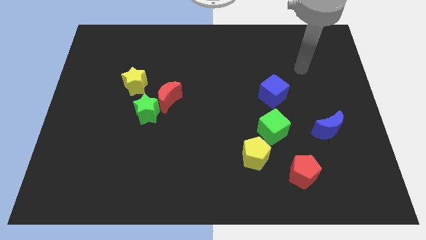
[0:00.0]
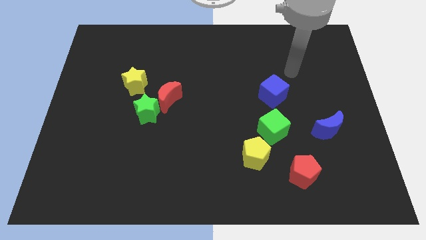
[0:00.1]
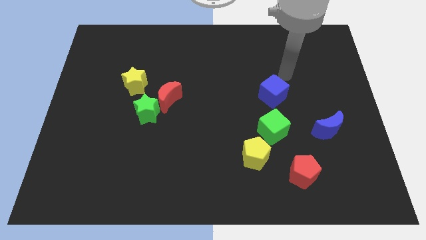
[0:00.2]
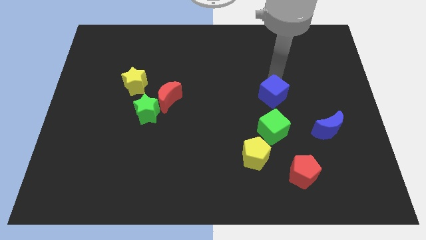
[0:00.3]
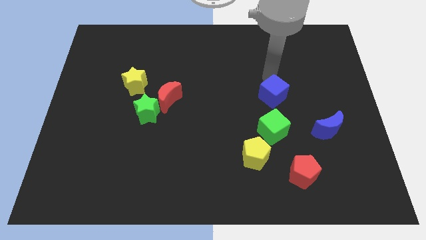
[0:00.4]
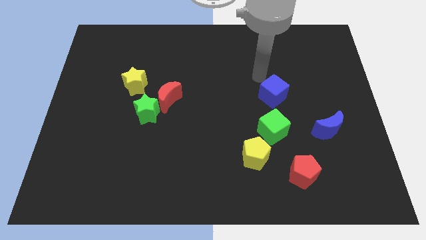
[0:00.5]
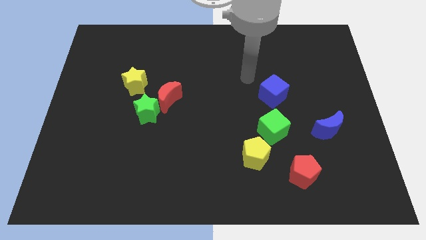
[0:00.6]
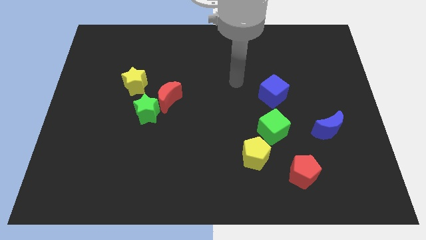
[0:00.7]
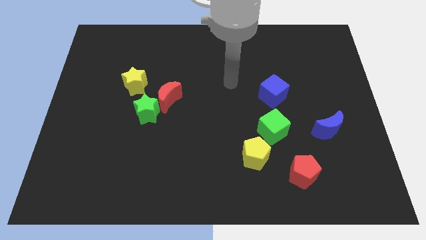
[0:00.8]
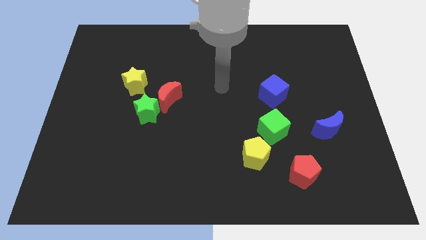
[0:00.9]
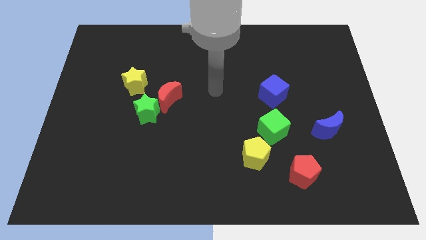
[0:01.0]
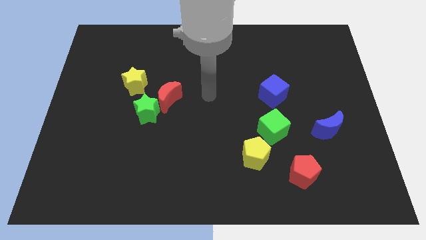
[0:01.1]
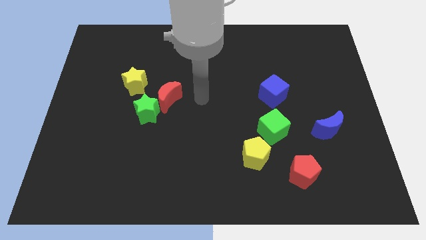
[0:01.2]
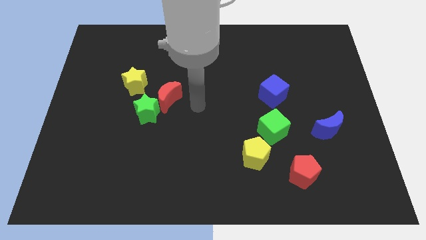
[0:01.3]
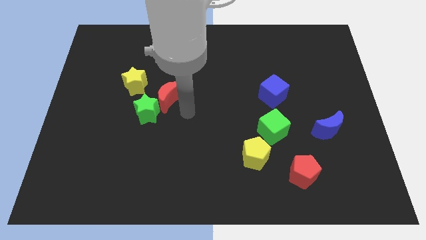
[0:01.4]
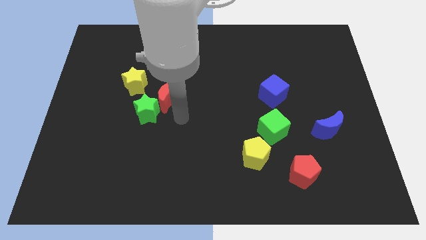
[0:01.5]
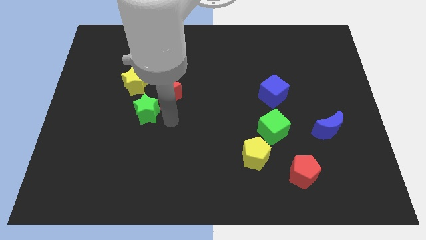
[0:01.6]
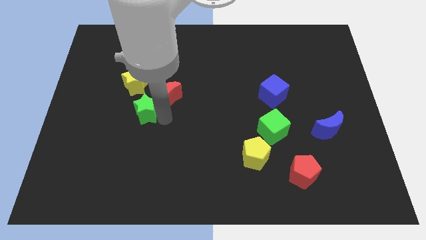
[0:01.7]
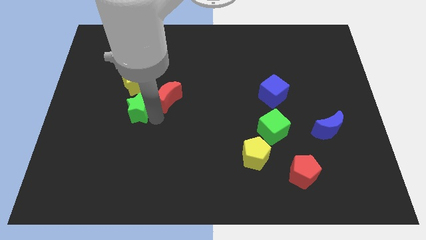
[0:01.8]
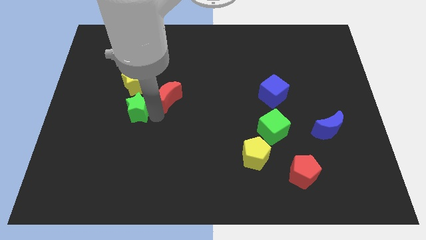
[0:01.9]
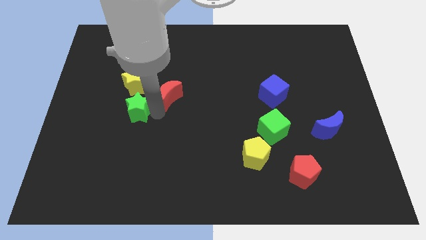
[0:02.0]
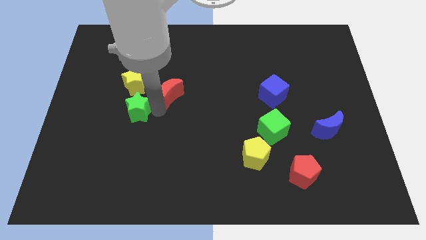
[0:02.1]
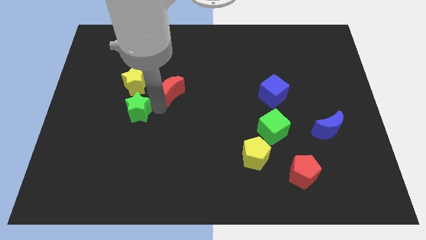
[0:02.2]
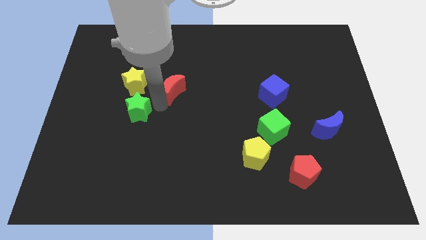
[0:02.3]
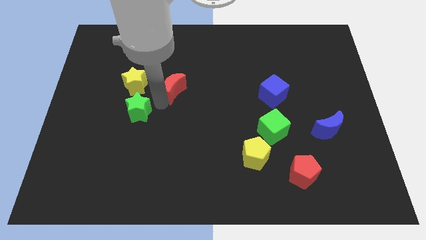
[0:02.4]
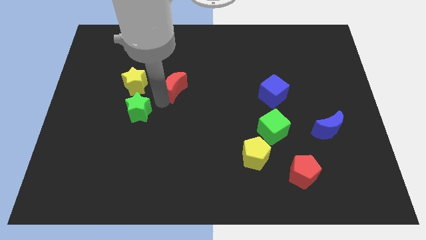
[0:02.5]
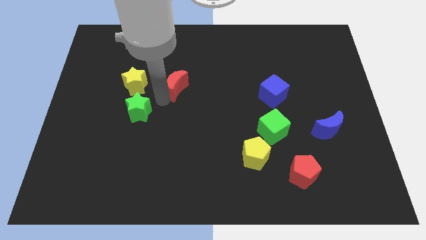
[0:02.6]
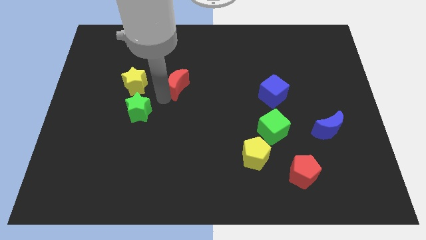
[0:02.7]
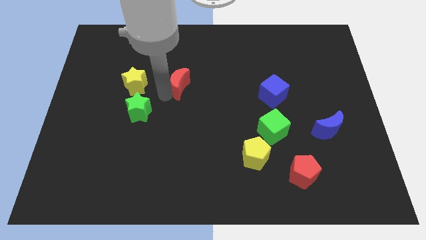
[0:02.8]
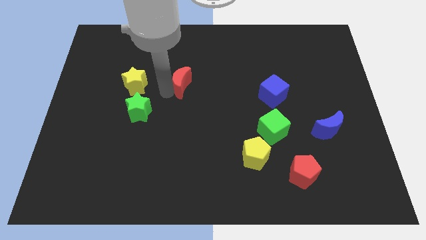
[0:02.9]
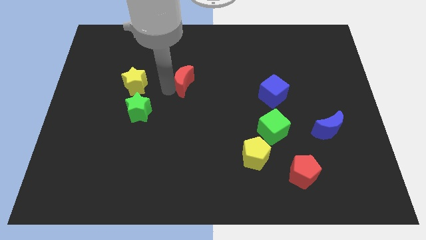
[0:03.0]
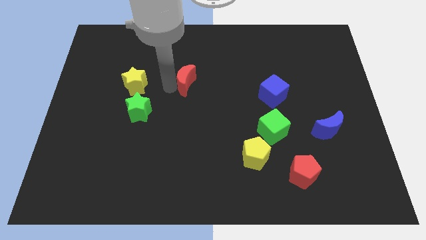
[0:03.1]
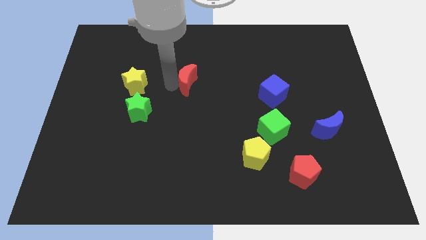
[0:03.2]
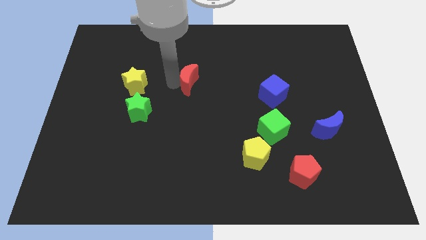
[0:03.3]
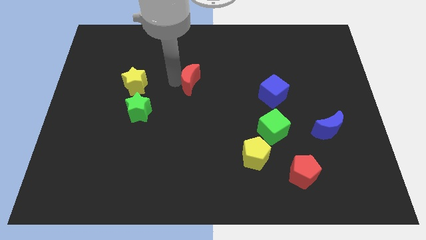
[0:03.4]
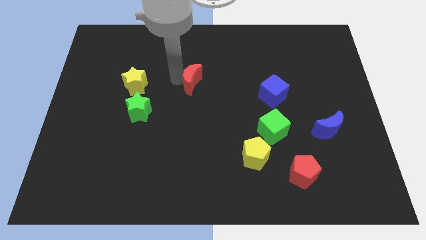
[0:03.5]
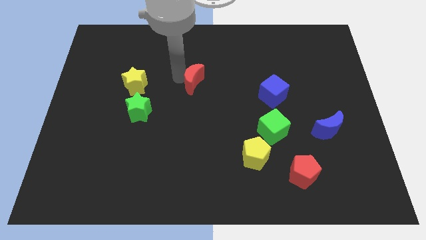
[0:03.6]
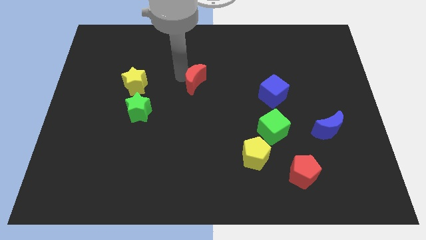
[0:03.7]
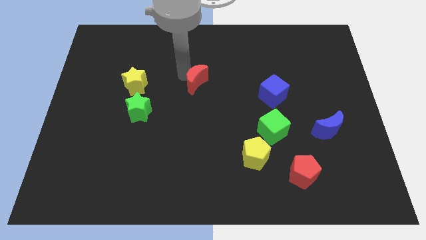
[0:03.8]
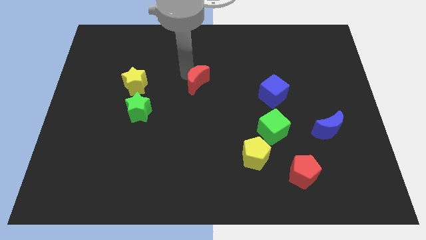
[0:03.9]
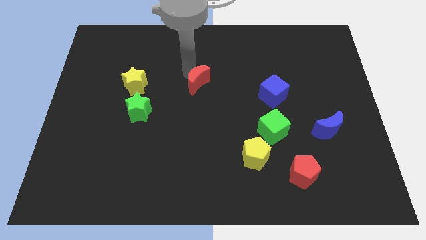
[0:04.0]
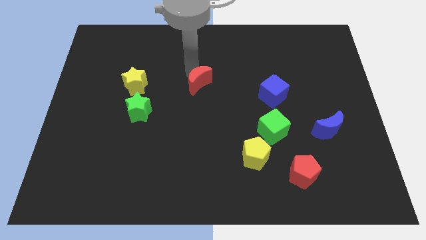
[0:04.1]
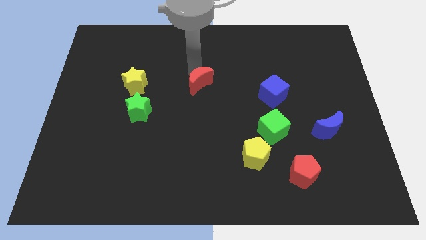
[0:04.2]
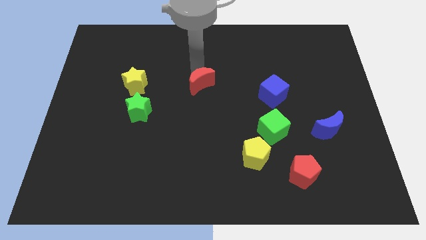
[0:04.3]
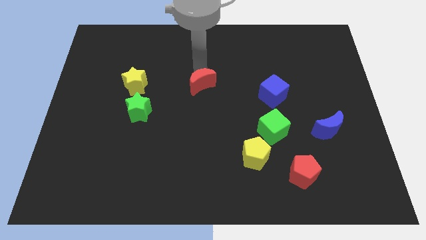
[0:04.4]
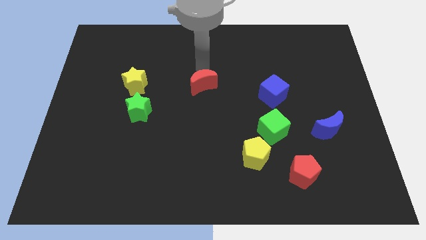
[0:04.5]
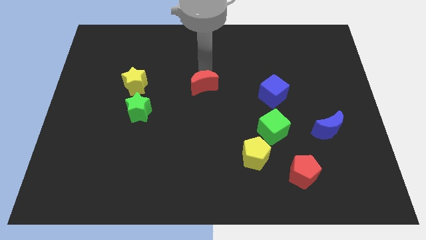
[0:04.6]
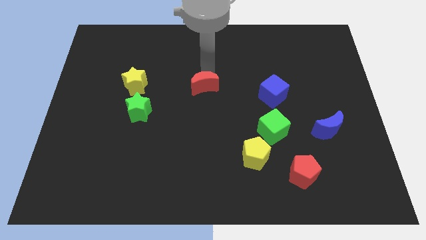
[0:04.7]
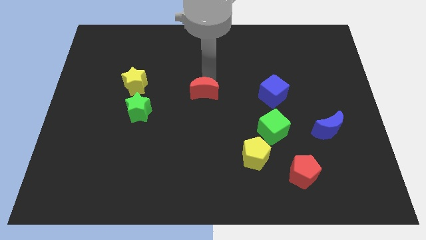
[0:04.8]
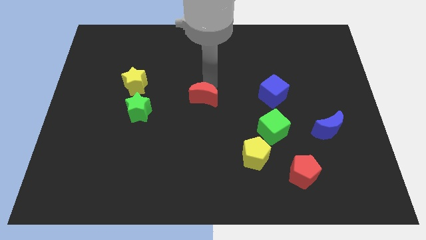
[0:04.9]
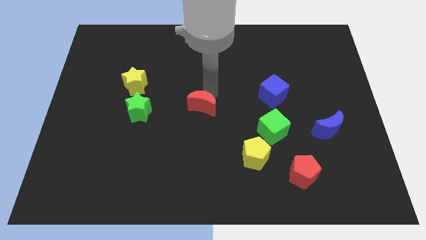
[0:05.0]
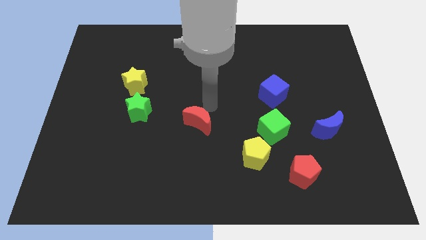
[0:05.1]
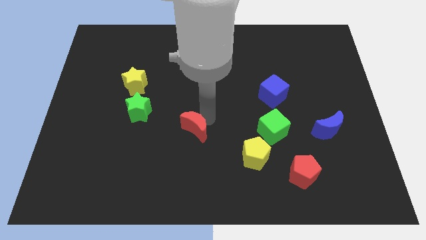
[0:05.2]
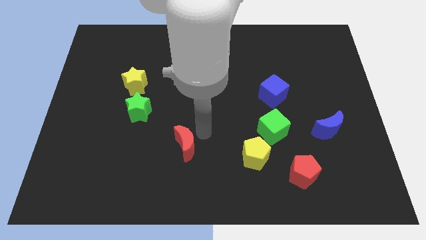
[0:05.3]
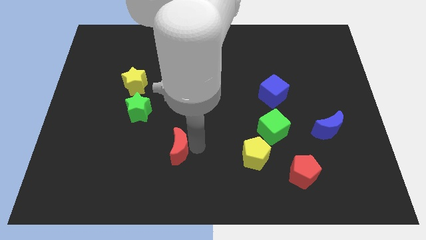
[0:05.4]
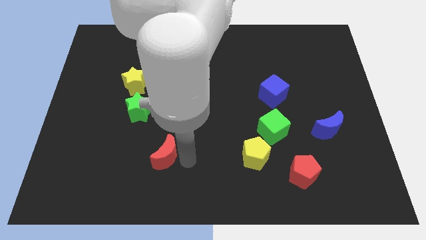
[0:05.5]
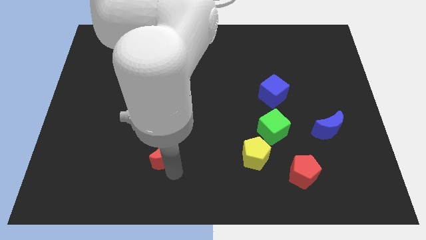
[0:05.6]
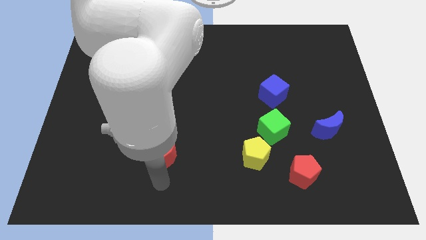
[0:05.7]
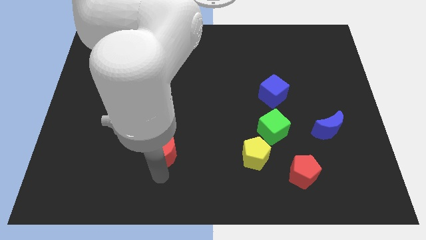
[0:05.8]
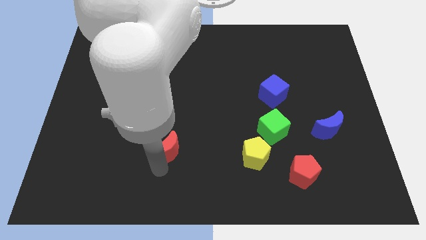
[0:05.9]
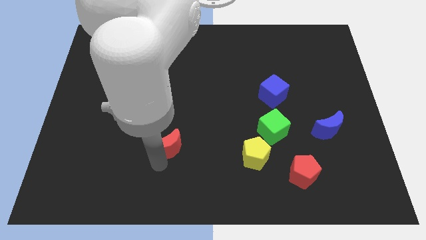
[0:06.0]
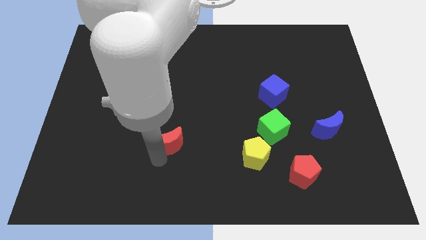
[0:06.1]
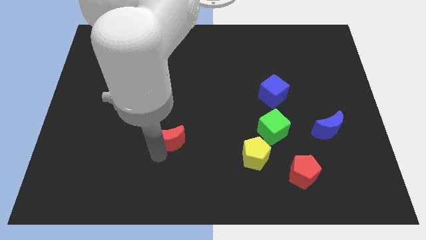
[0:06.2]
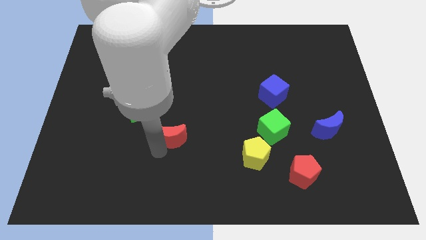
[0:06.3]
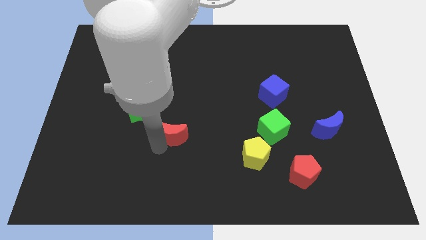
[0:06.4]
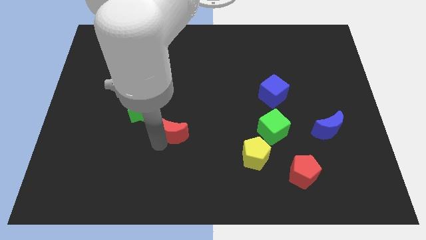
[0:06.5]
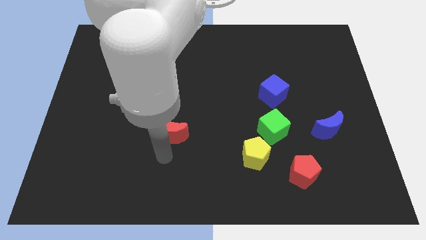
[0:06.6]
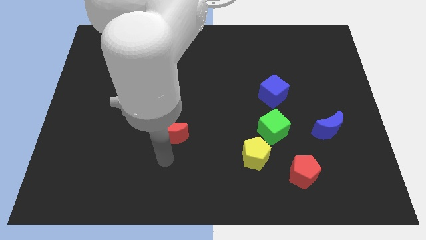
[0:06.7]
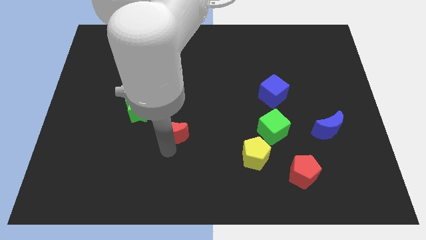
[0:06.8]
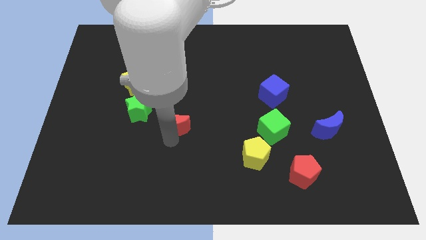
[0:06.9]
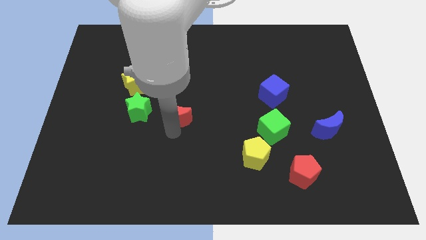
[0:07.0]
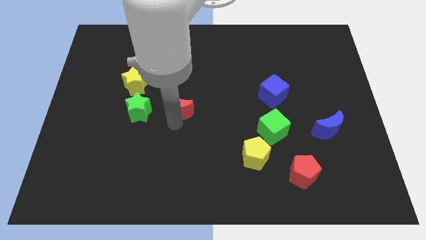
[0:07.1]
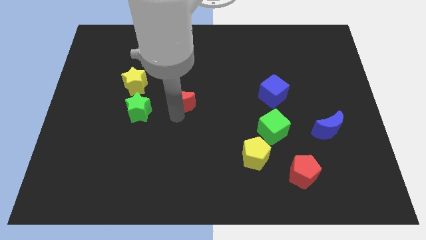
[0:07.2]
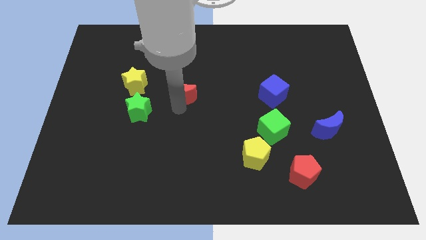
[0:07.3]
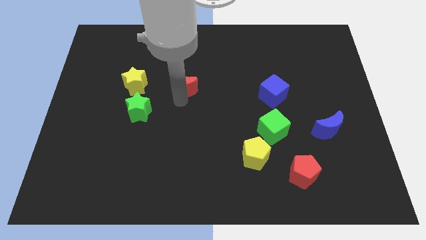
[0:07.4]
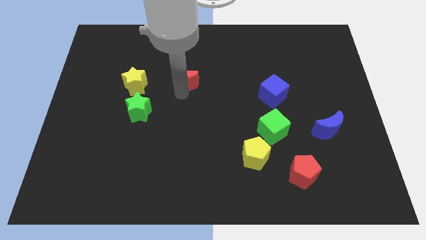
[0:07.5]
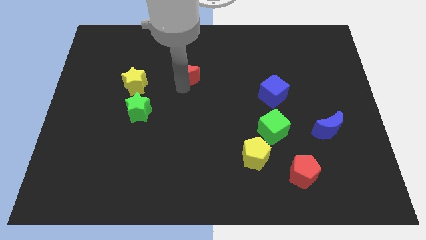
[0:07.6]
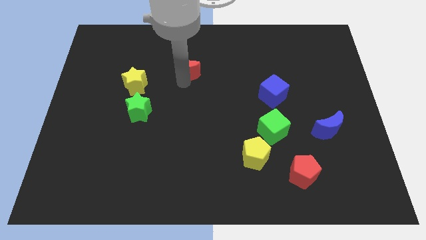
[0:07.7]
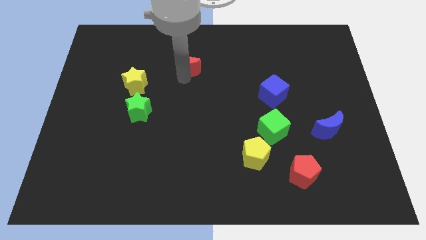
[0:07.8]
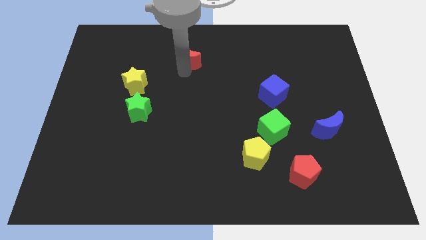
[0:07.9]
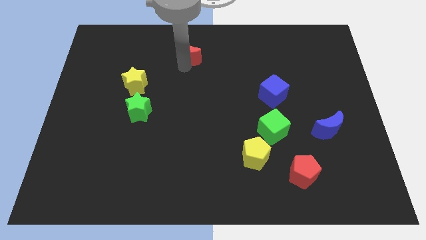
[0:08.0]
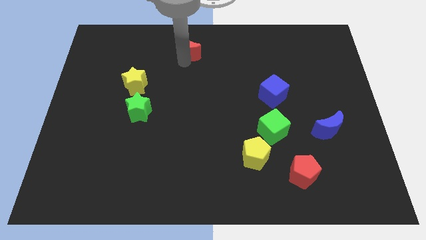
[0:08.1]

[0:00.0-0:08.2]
push the red moon to the top
